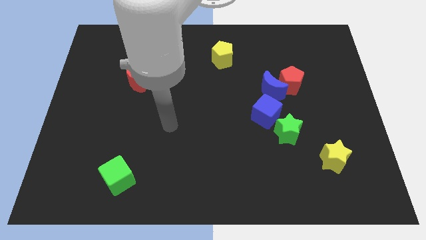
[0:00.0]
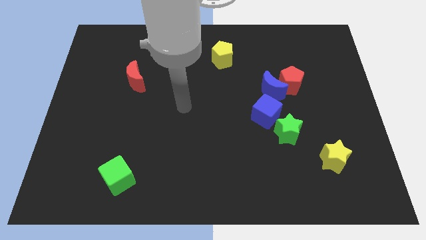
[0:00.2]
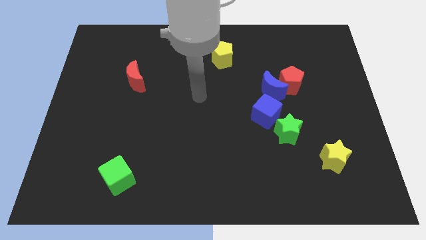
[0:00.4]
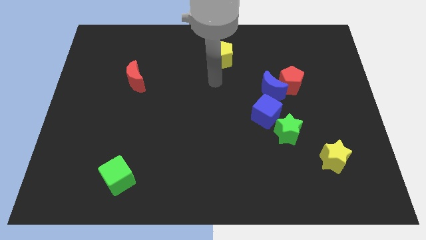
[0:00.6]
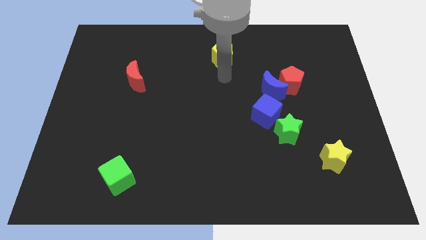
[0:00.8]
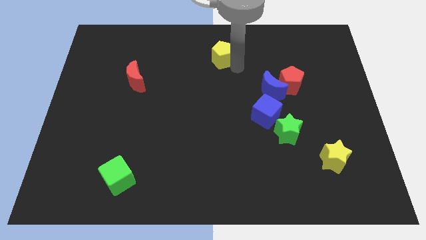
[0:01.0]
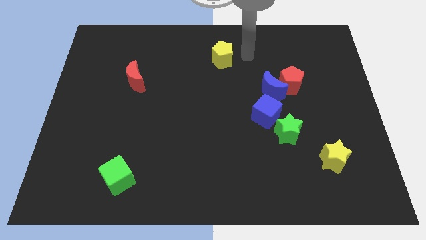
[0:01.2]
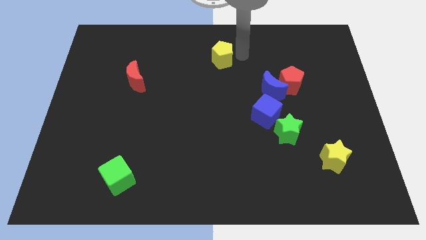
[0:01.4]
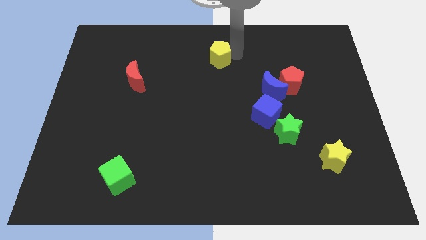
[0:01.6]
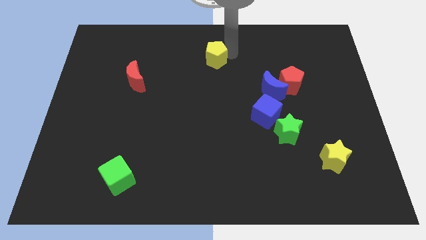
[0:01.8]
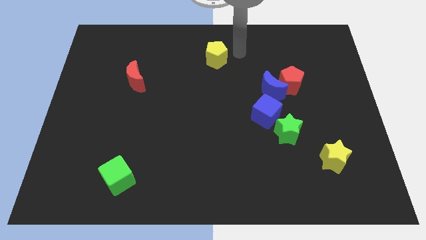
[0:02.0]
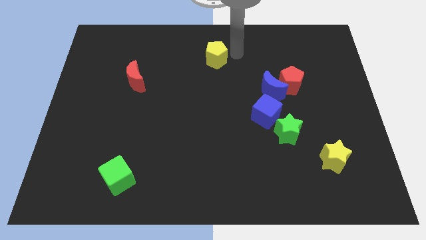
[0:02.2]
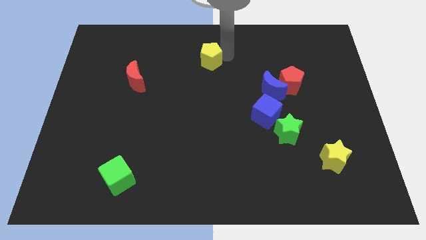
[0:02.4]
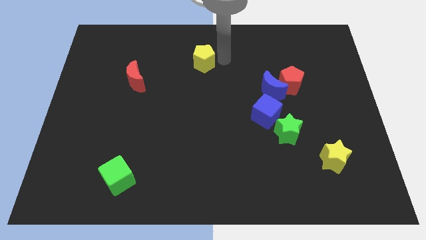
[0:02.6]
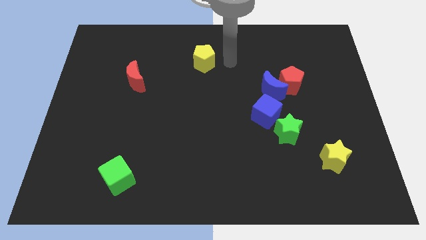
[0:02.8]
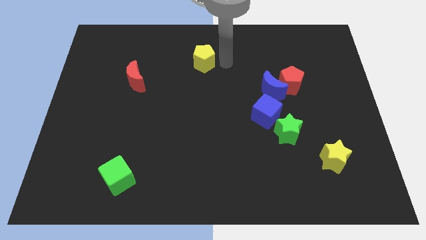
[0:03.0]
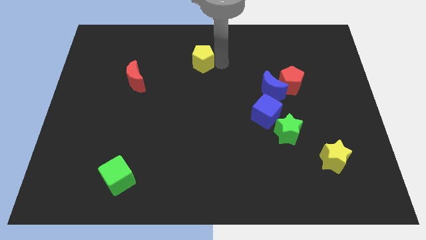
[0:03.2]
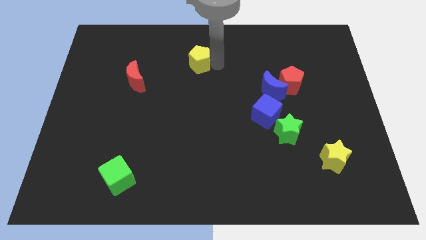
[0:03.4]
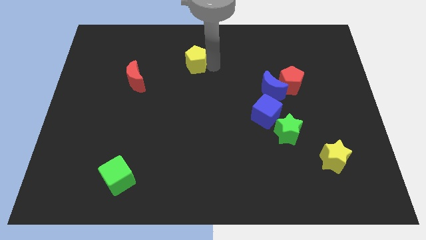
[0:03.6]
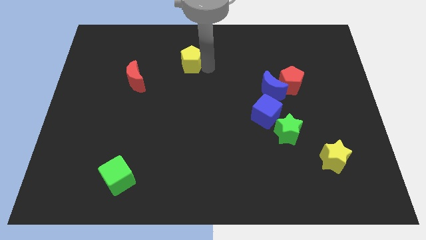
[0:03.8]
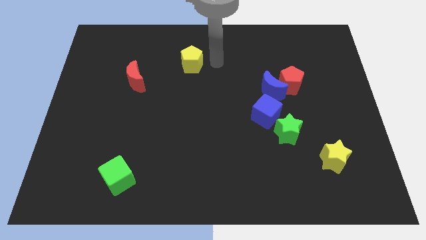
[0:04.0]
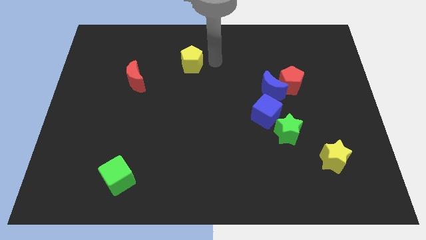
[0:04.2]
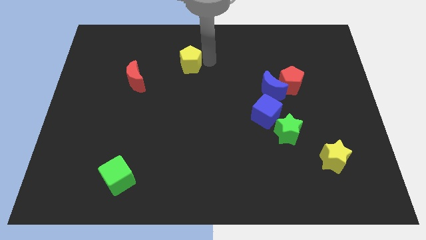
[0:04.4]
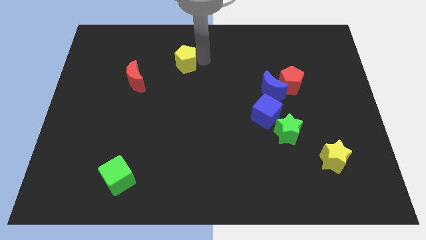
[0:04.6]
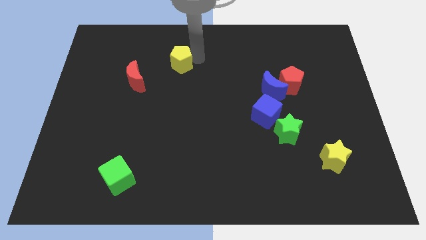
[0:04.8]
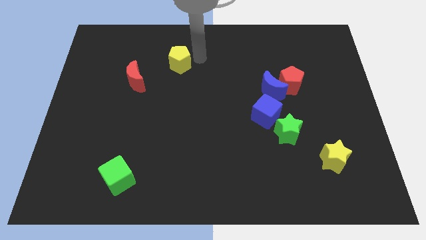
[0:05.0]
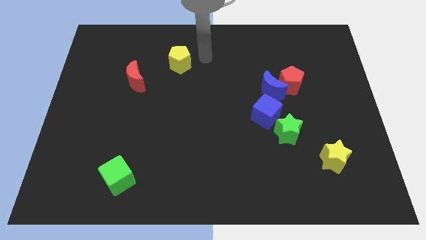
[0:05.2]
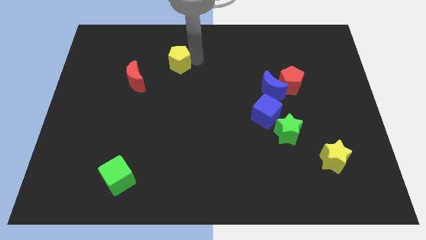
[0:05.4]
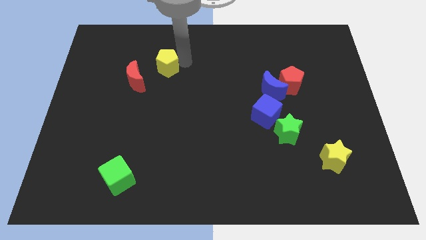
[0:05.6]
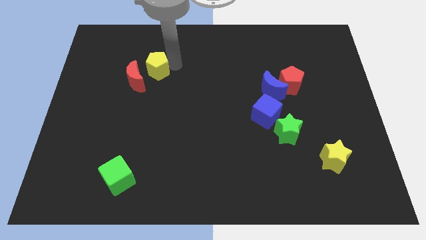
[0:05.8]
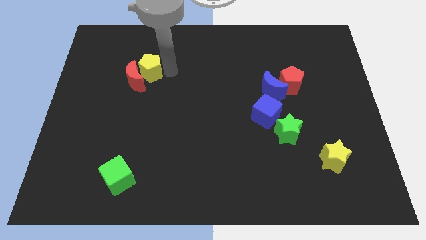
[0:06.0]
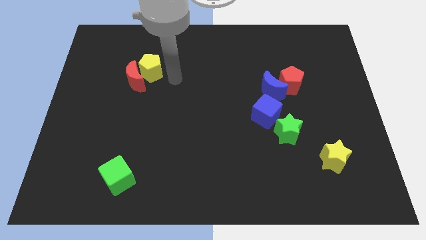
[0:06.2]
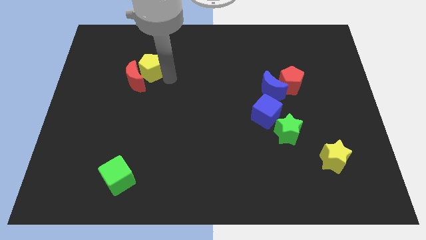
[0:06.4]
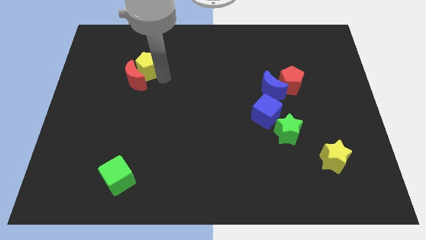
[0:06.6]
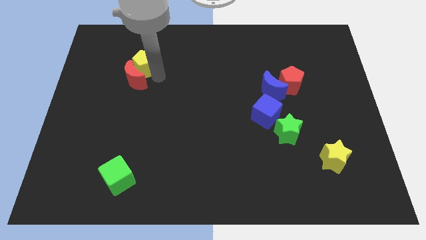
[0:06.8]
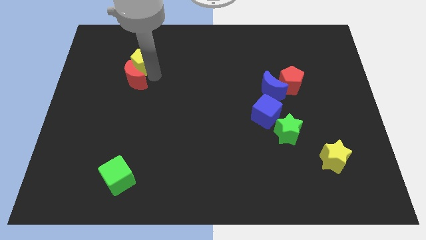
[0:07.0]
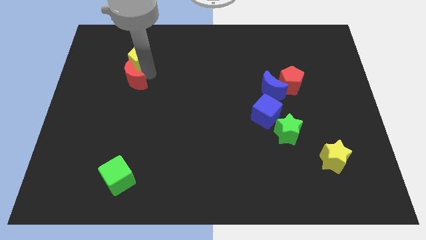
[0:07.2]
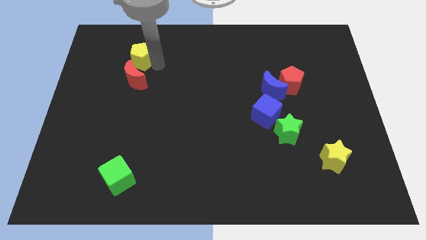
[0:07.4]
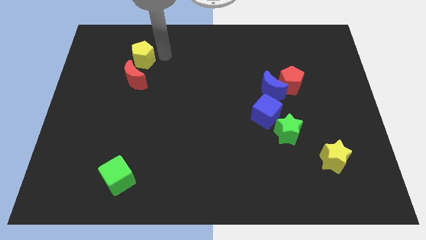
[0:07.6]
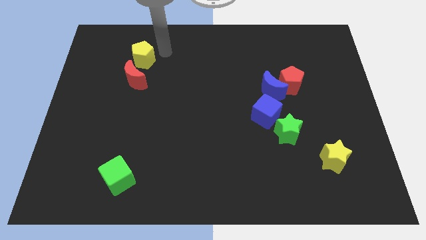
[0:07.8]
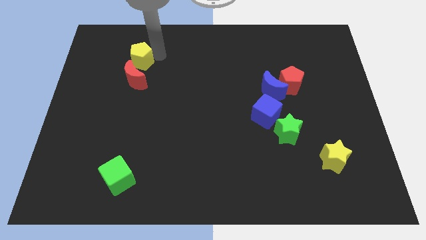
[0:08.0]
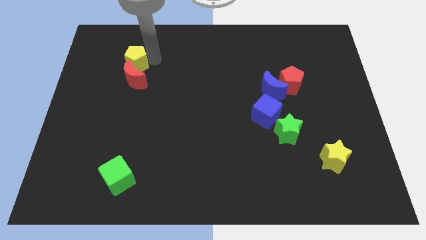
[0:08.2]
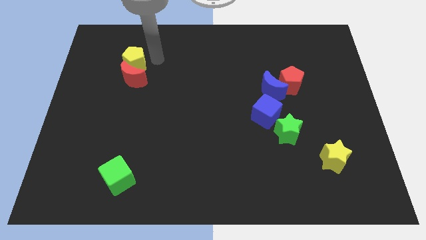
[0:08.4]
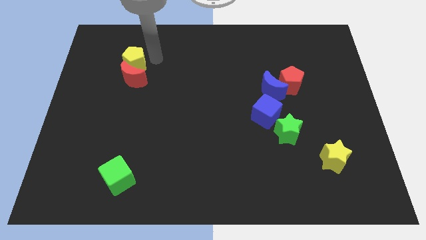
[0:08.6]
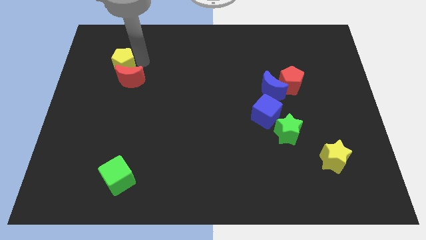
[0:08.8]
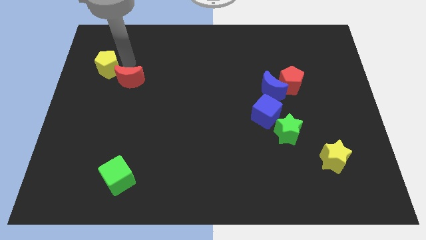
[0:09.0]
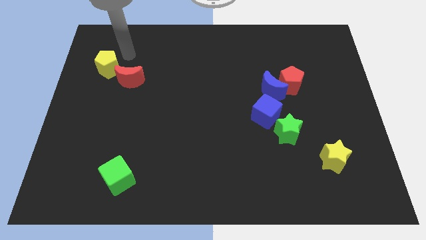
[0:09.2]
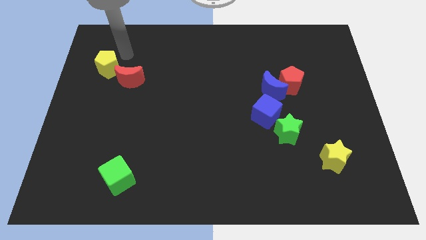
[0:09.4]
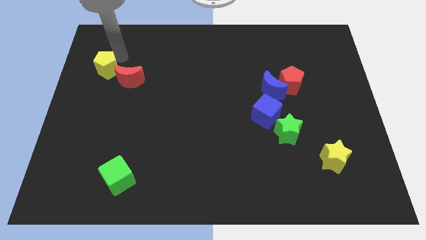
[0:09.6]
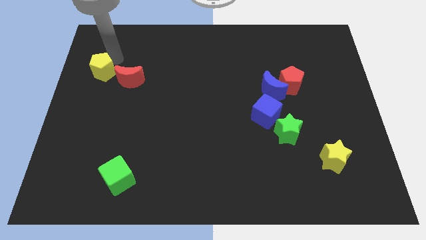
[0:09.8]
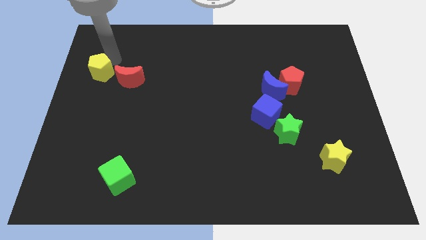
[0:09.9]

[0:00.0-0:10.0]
move the yellow pentagon to the left side of the board

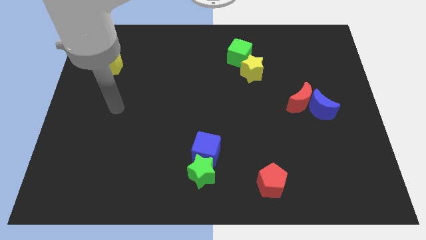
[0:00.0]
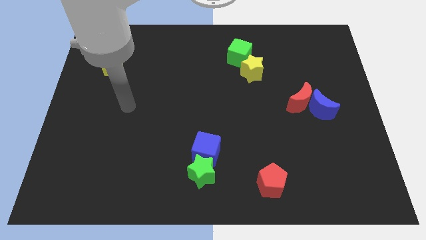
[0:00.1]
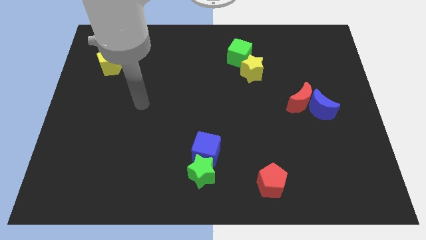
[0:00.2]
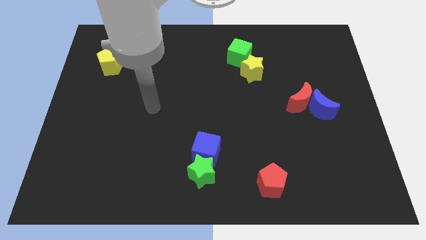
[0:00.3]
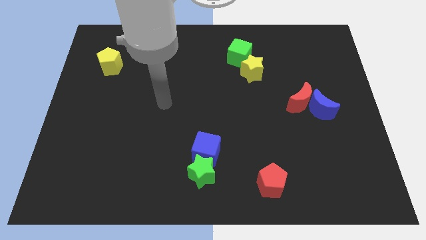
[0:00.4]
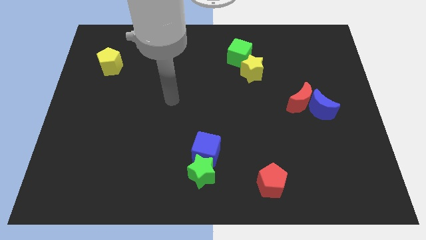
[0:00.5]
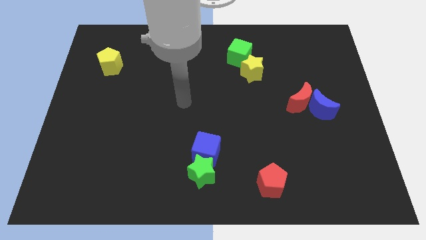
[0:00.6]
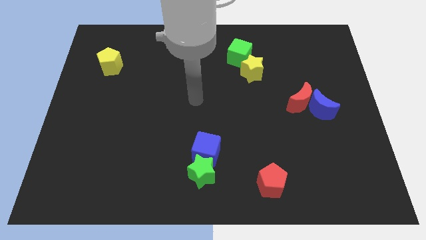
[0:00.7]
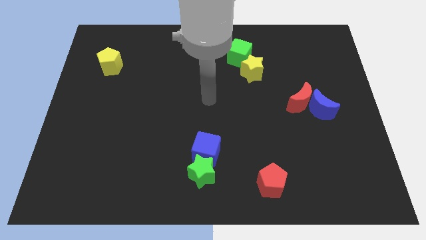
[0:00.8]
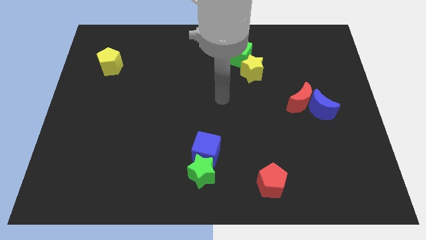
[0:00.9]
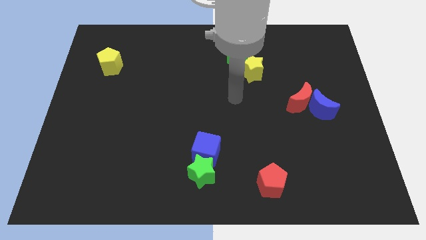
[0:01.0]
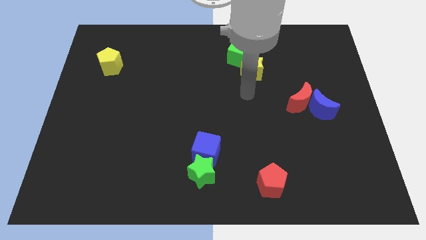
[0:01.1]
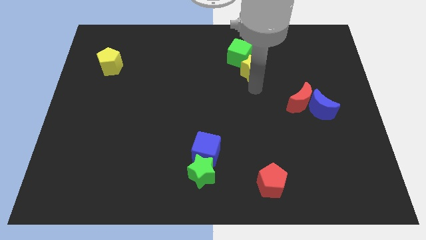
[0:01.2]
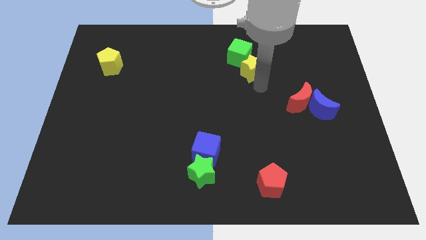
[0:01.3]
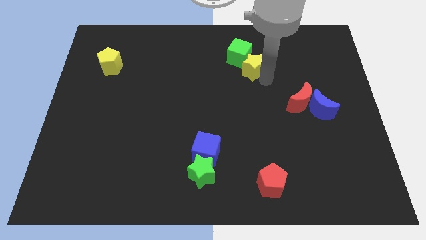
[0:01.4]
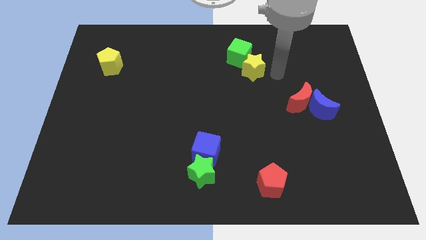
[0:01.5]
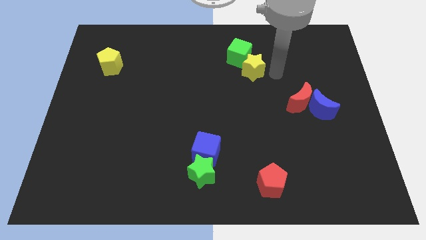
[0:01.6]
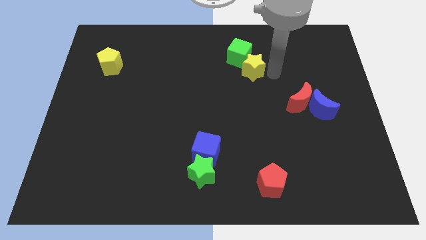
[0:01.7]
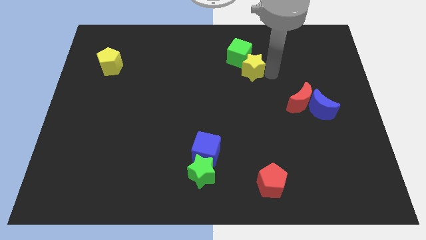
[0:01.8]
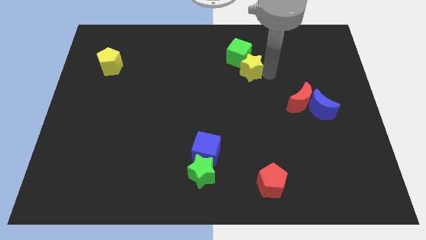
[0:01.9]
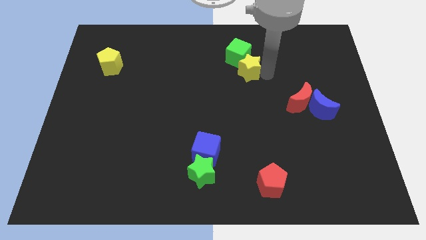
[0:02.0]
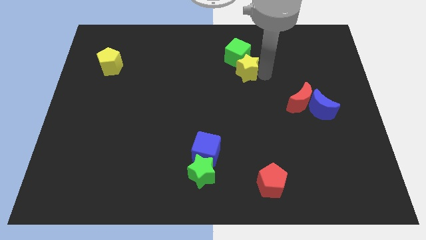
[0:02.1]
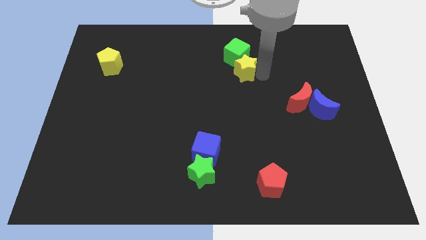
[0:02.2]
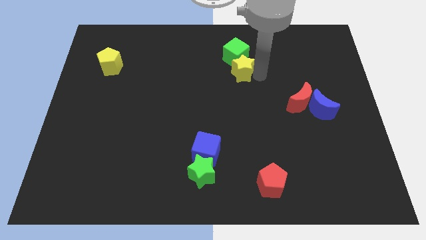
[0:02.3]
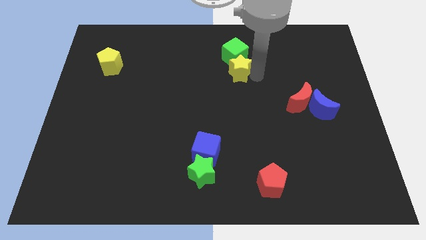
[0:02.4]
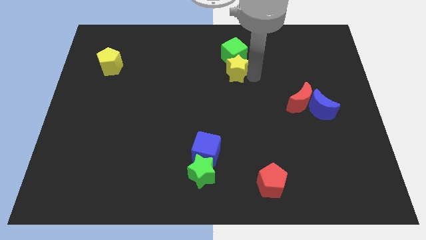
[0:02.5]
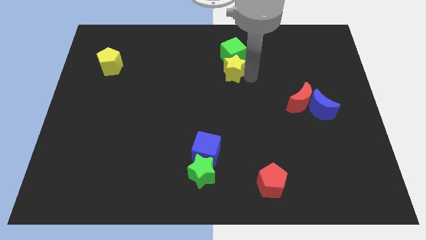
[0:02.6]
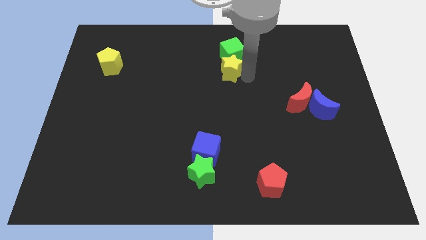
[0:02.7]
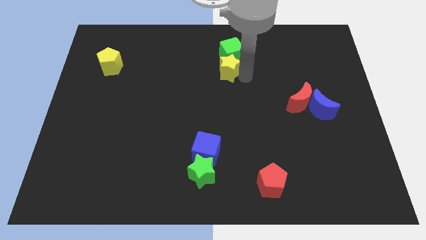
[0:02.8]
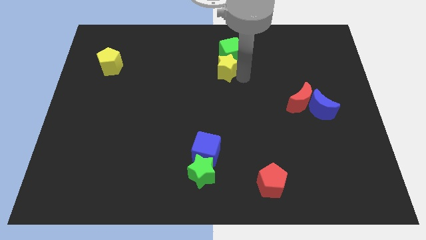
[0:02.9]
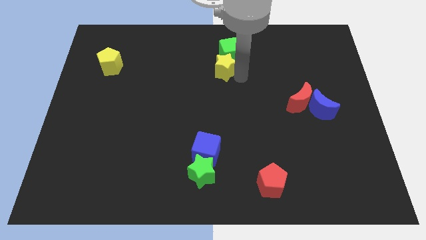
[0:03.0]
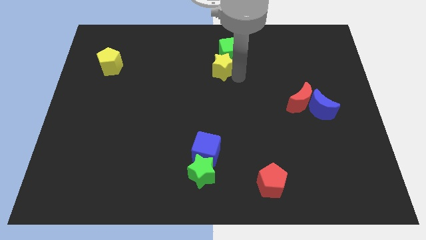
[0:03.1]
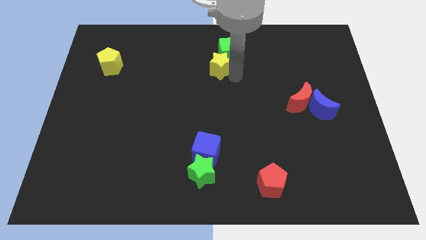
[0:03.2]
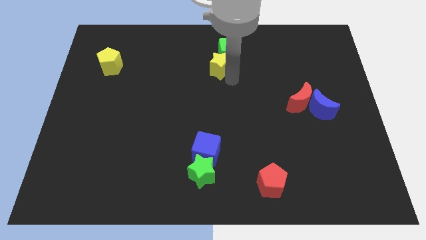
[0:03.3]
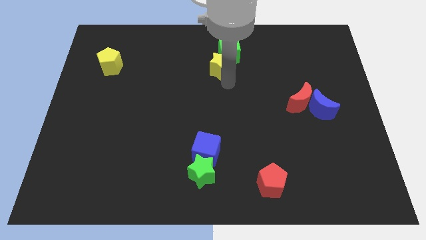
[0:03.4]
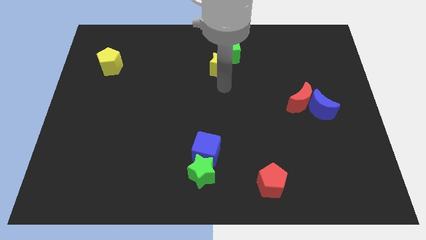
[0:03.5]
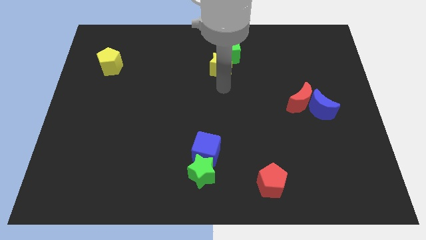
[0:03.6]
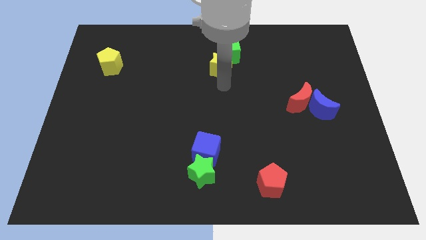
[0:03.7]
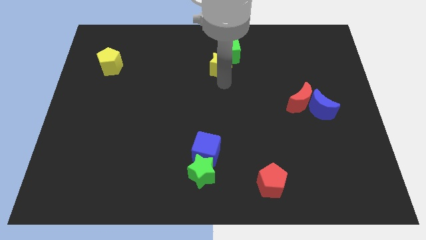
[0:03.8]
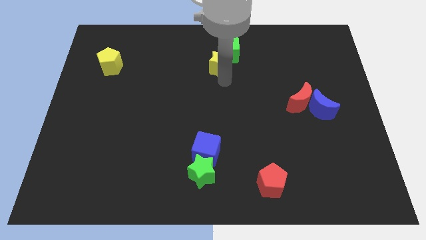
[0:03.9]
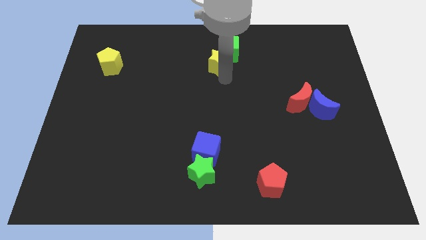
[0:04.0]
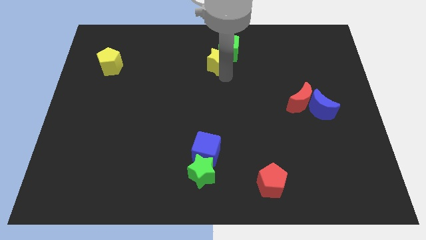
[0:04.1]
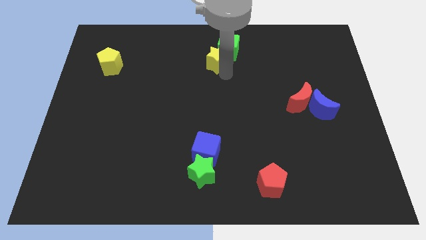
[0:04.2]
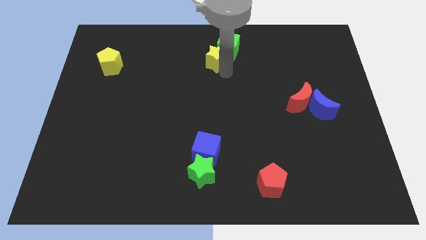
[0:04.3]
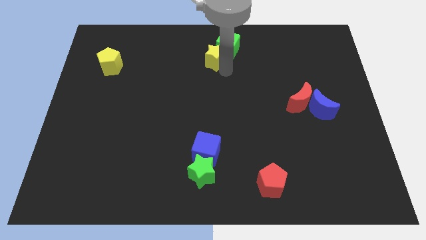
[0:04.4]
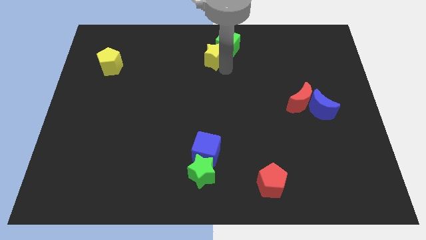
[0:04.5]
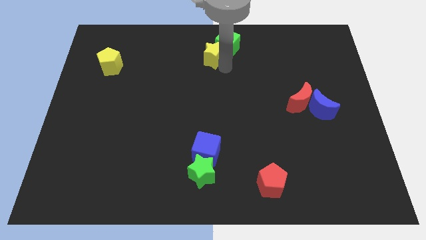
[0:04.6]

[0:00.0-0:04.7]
push the yellow star to the top
